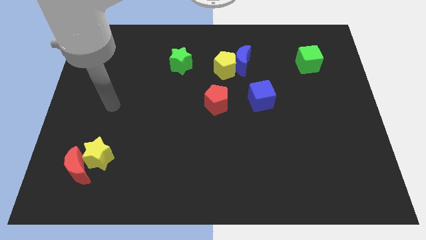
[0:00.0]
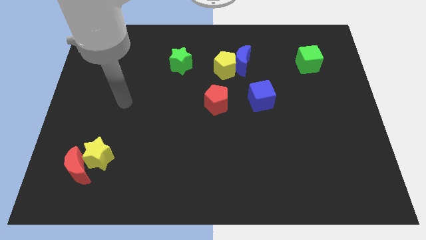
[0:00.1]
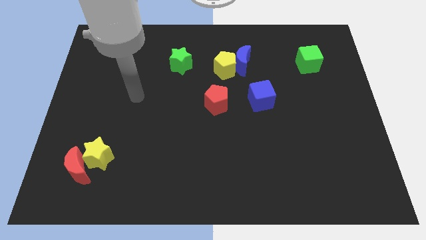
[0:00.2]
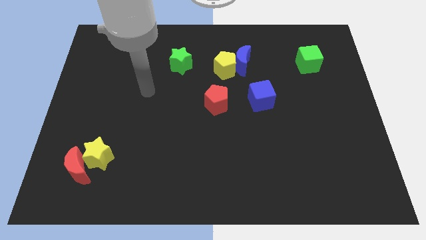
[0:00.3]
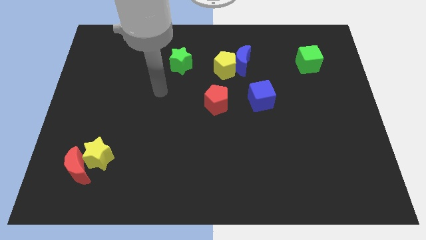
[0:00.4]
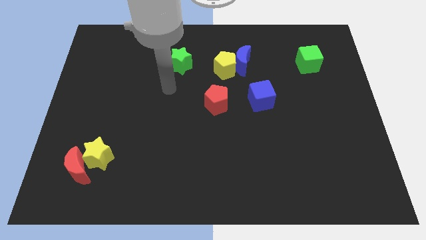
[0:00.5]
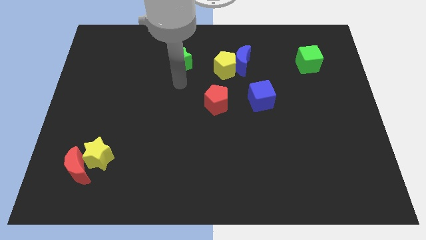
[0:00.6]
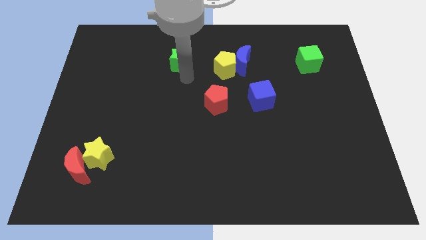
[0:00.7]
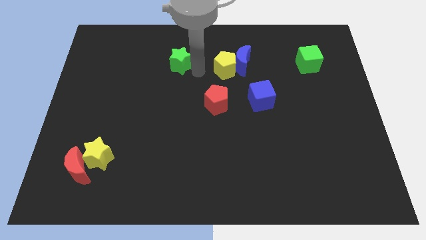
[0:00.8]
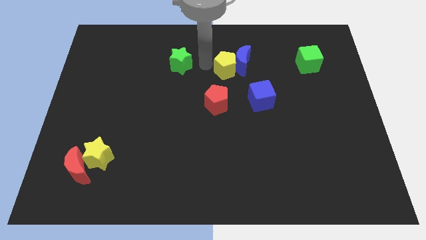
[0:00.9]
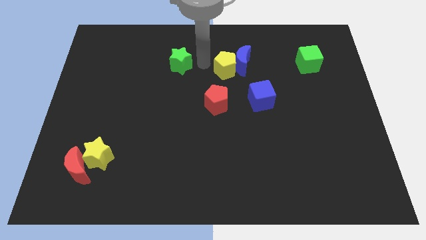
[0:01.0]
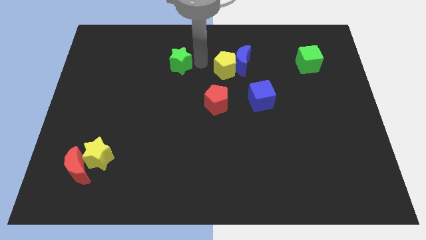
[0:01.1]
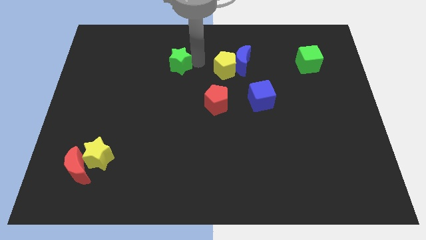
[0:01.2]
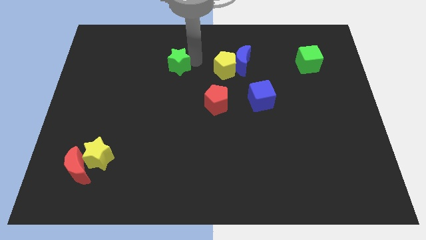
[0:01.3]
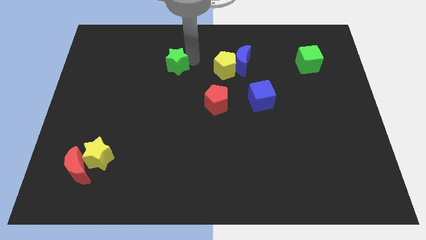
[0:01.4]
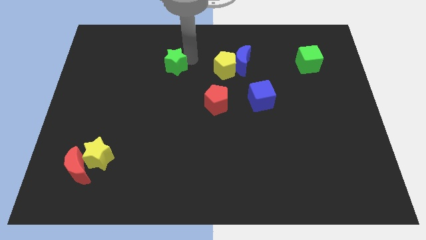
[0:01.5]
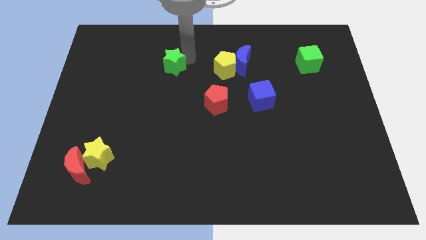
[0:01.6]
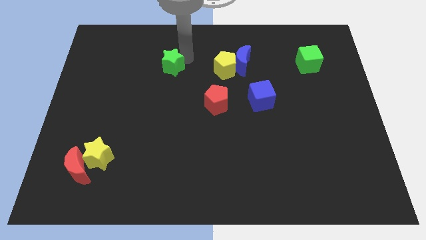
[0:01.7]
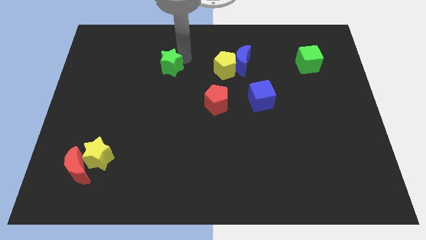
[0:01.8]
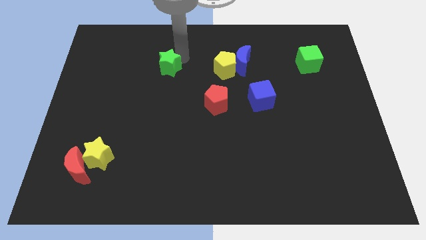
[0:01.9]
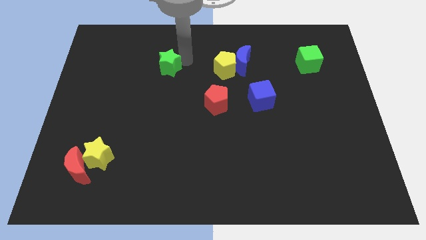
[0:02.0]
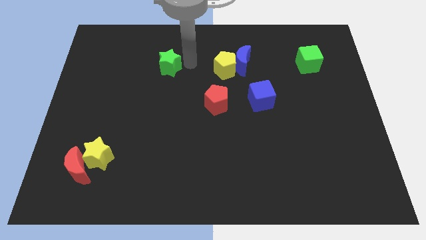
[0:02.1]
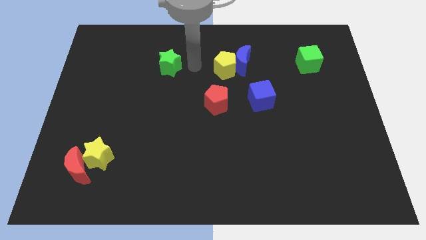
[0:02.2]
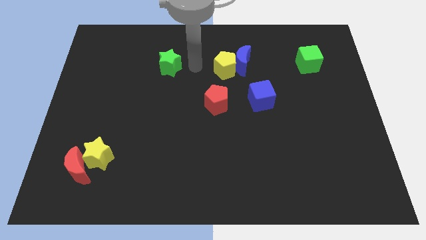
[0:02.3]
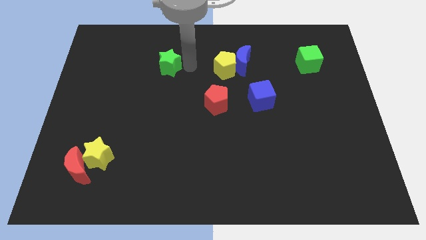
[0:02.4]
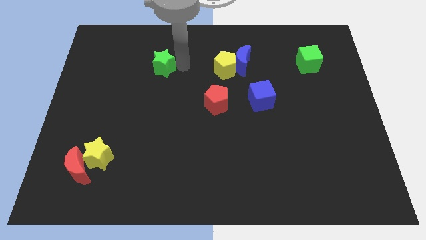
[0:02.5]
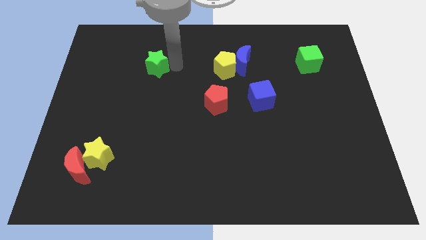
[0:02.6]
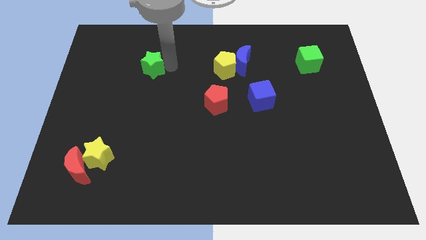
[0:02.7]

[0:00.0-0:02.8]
slide the green star slightly to the left

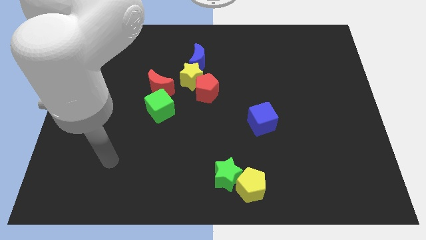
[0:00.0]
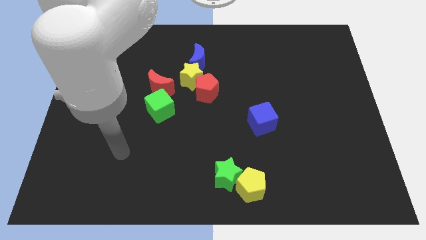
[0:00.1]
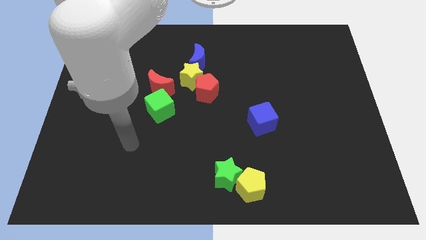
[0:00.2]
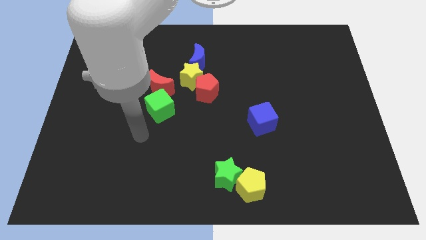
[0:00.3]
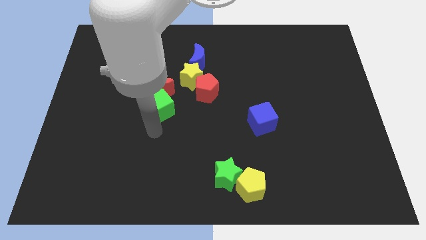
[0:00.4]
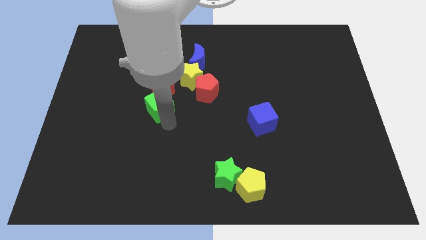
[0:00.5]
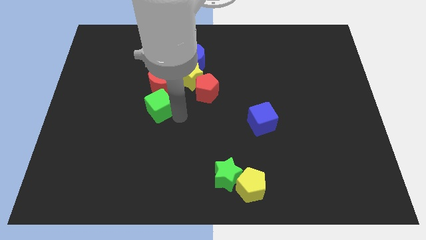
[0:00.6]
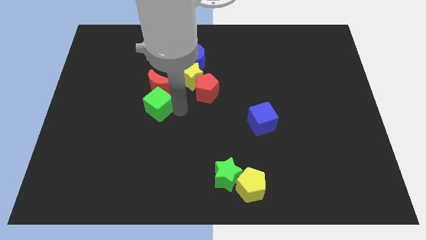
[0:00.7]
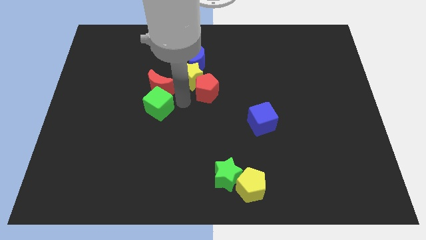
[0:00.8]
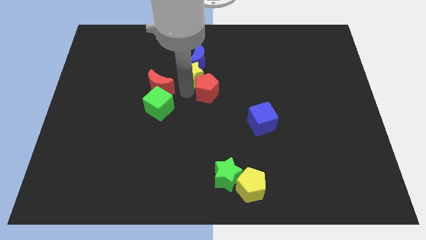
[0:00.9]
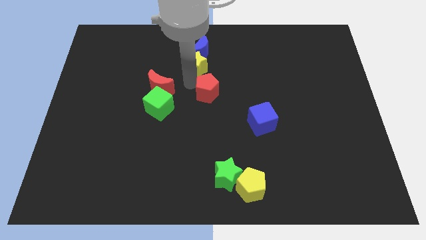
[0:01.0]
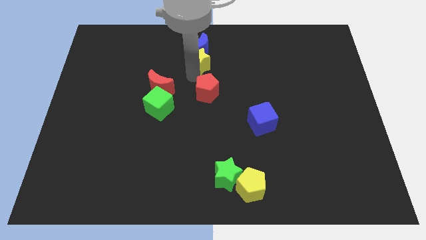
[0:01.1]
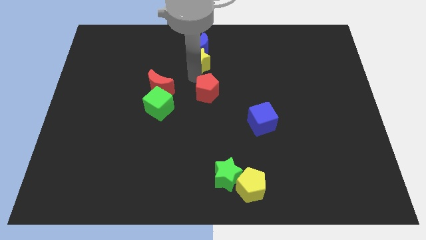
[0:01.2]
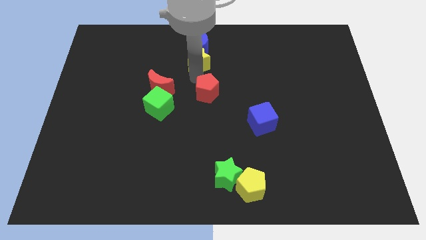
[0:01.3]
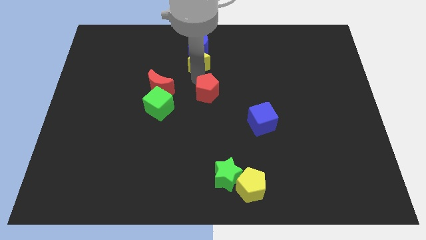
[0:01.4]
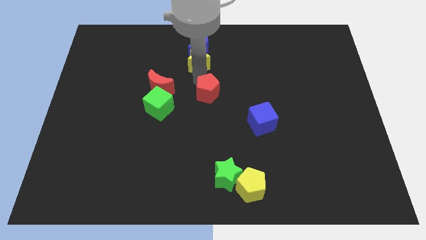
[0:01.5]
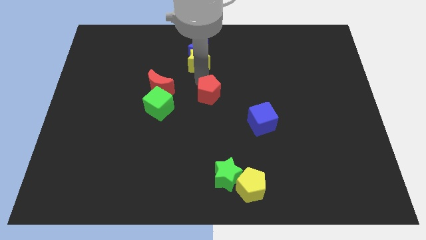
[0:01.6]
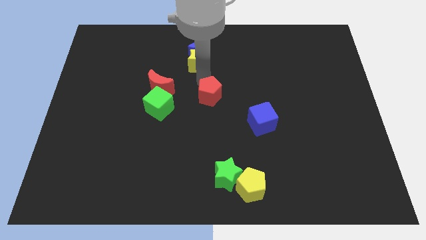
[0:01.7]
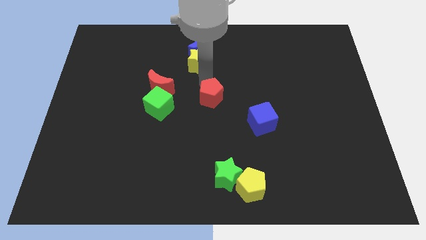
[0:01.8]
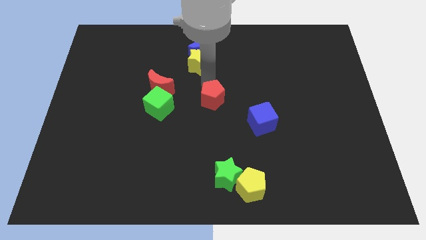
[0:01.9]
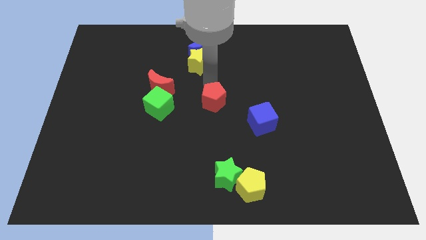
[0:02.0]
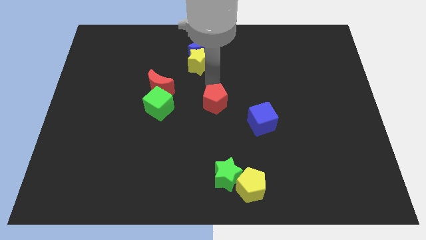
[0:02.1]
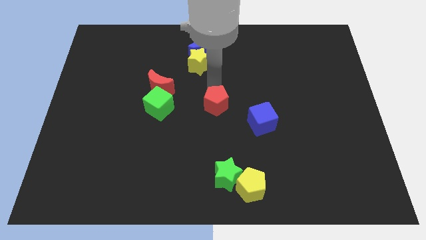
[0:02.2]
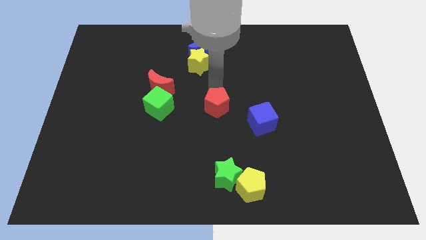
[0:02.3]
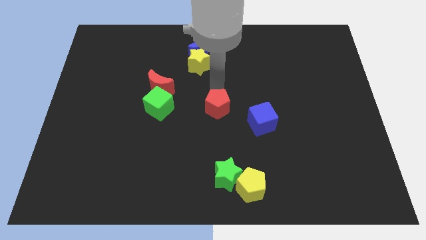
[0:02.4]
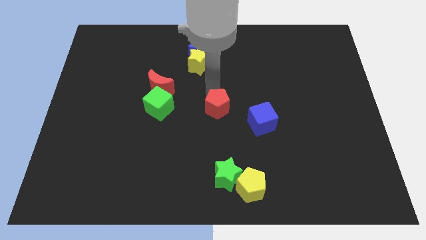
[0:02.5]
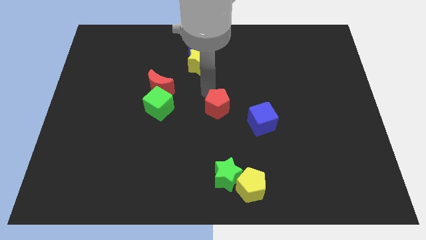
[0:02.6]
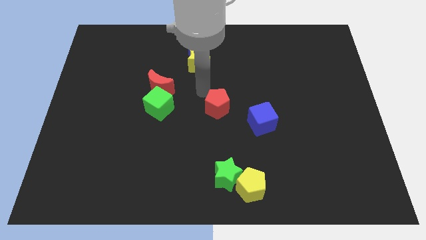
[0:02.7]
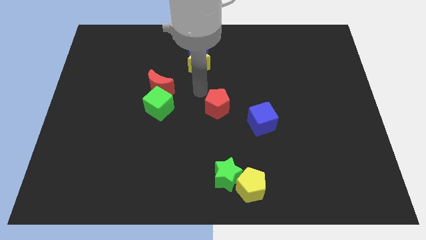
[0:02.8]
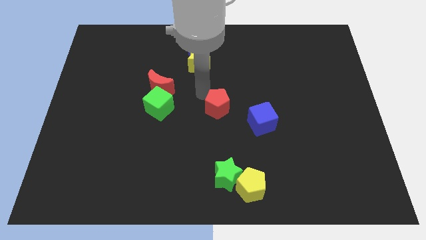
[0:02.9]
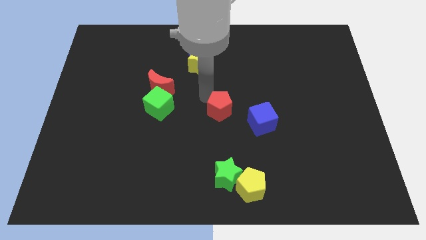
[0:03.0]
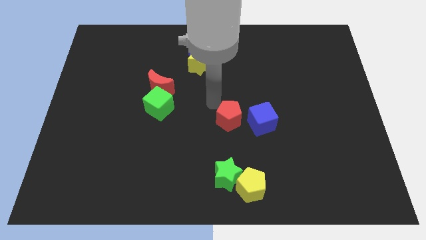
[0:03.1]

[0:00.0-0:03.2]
slide the red pentagon down and to the right a little

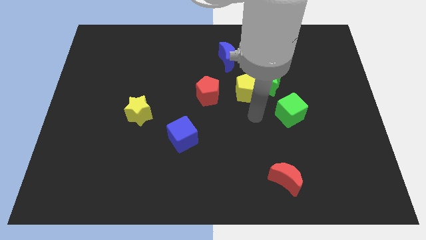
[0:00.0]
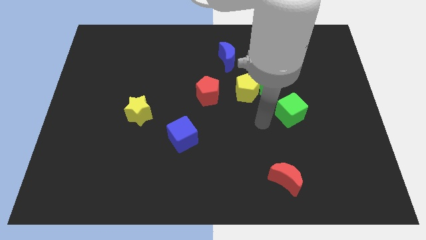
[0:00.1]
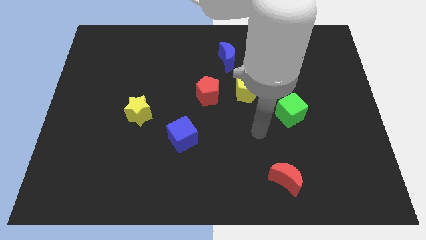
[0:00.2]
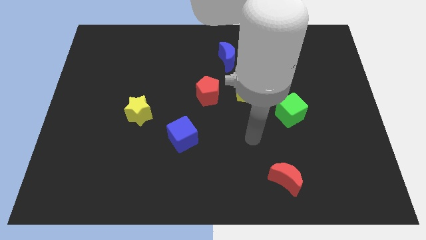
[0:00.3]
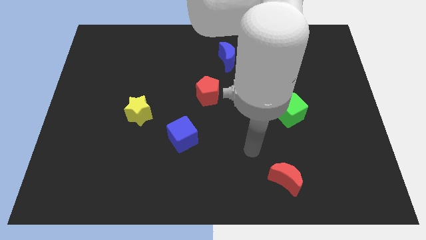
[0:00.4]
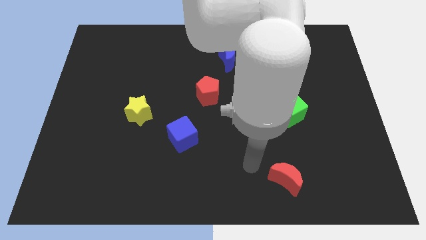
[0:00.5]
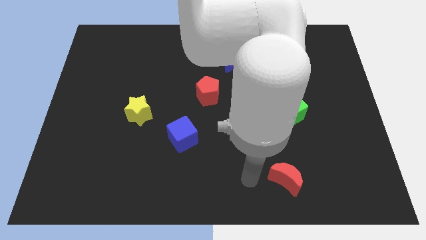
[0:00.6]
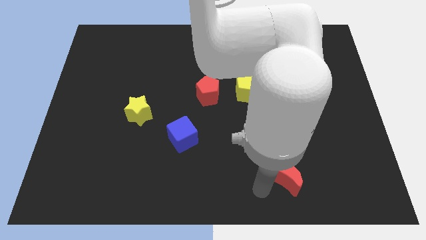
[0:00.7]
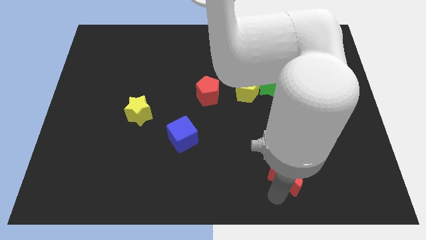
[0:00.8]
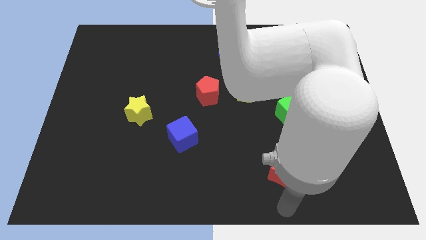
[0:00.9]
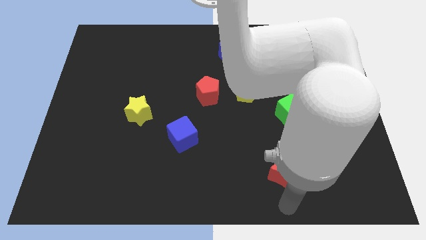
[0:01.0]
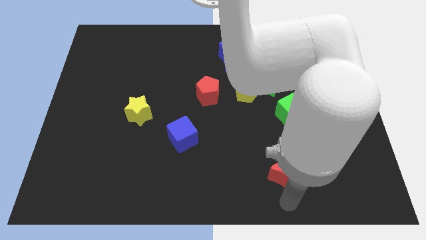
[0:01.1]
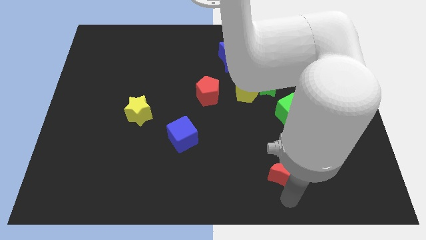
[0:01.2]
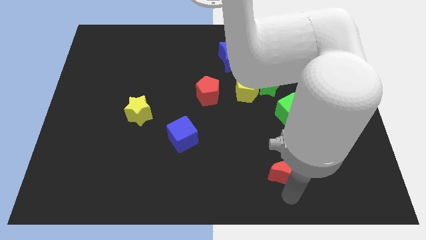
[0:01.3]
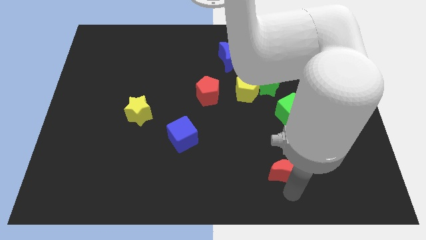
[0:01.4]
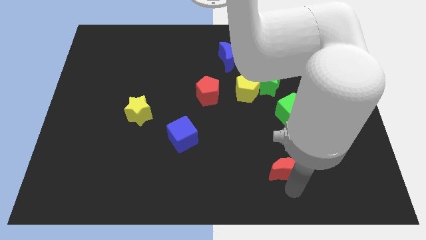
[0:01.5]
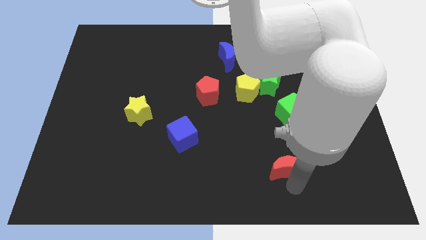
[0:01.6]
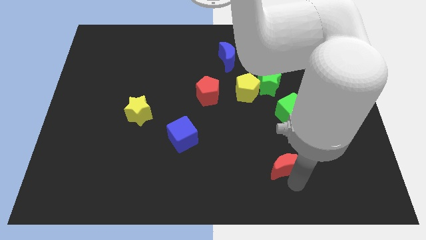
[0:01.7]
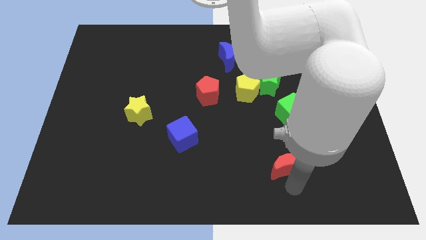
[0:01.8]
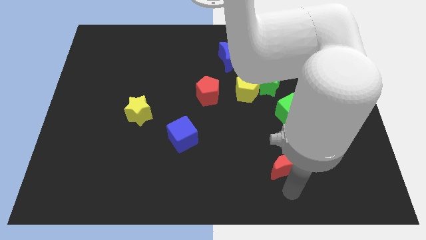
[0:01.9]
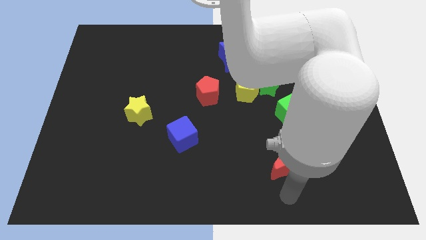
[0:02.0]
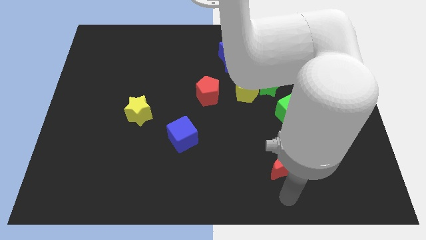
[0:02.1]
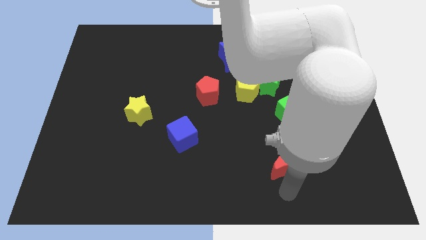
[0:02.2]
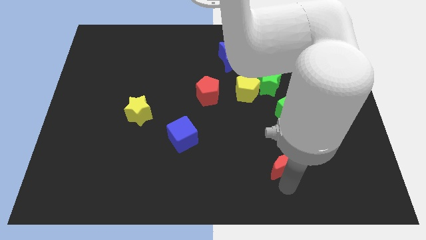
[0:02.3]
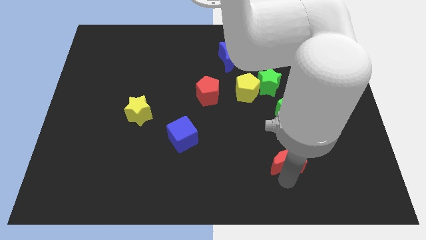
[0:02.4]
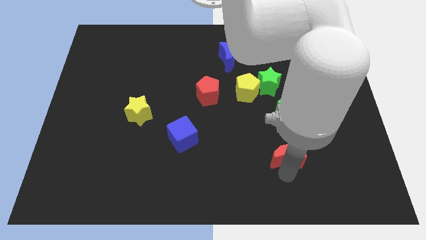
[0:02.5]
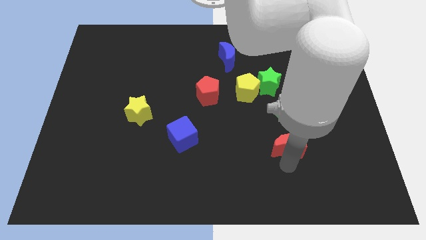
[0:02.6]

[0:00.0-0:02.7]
slide the red moon upwards a little bit

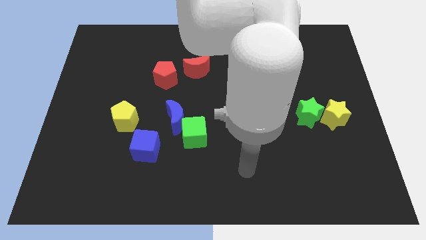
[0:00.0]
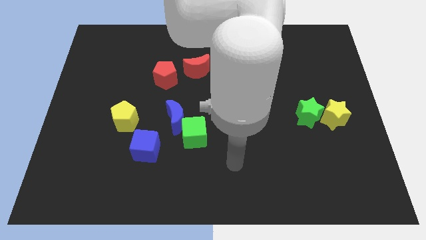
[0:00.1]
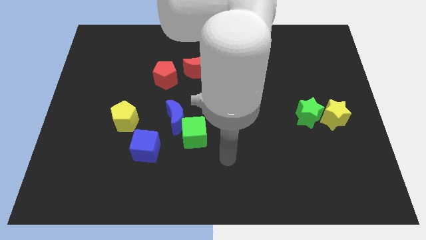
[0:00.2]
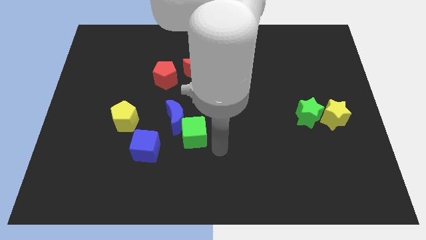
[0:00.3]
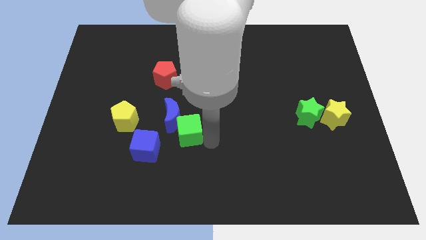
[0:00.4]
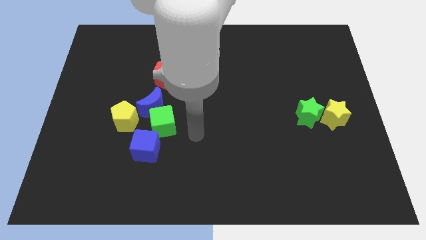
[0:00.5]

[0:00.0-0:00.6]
move the blue moon slightly diagonally upwards and to the left
